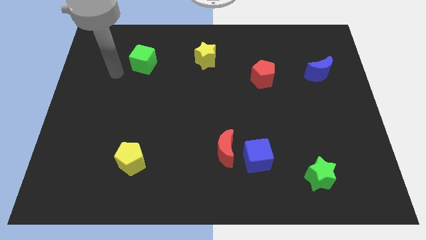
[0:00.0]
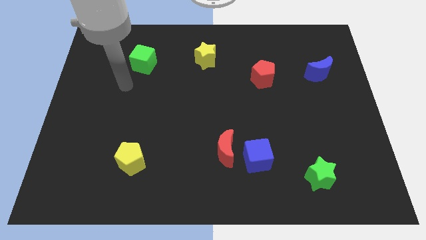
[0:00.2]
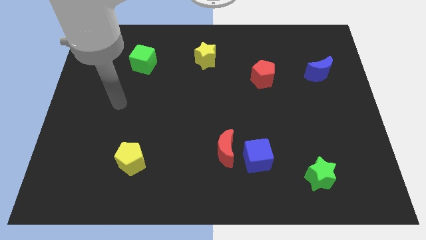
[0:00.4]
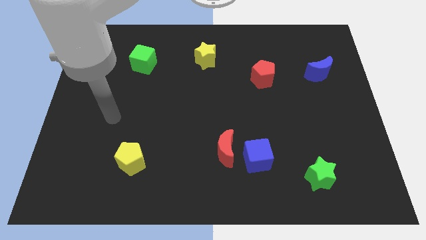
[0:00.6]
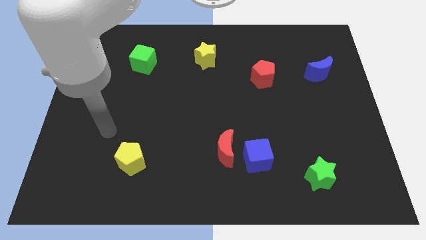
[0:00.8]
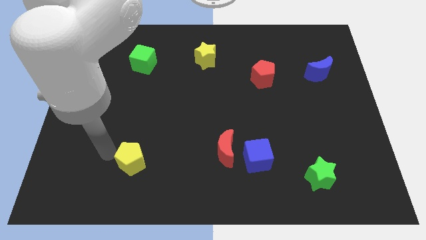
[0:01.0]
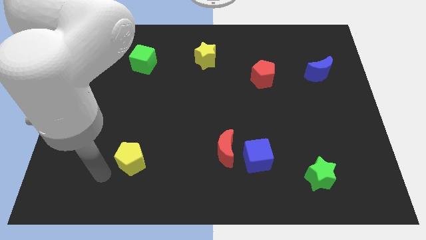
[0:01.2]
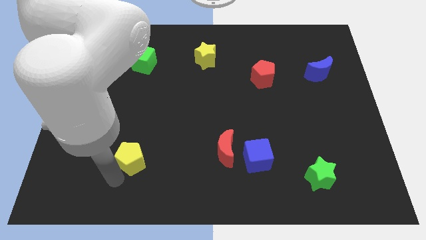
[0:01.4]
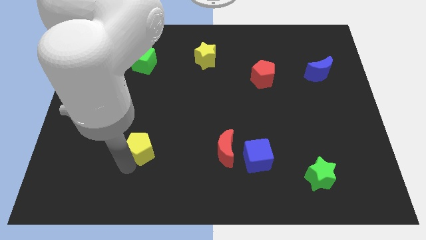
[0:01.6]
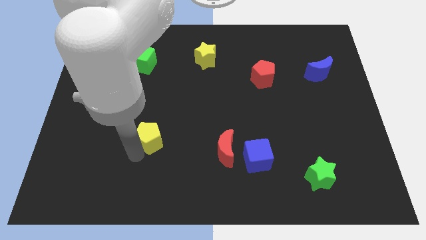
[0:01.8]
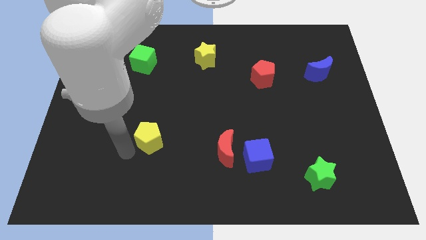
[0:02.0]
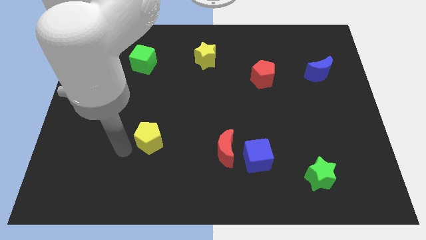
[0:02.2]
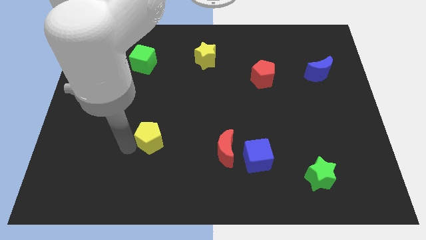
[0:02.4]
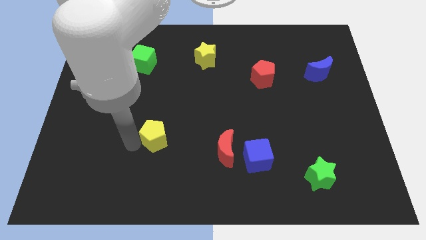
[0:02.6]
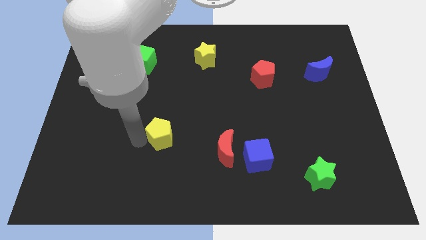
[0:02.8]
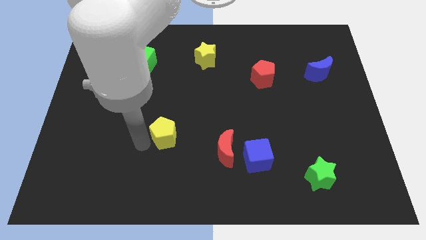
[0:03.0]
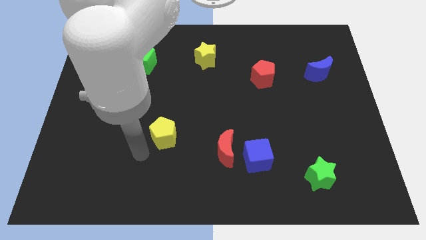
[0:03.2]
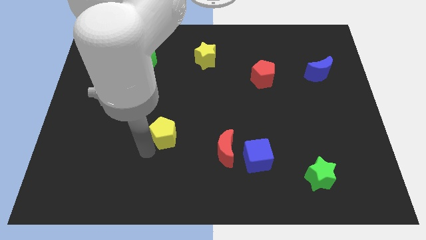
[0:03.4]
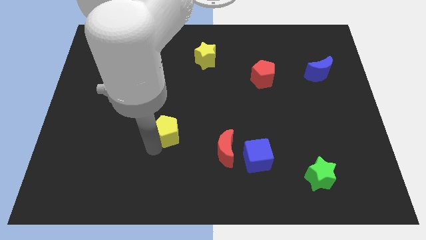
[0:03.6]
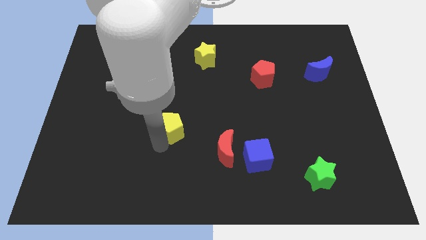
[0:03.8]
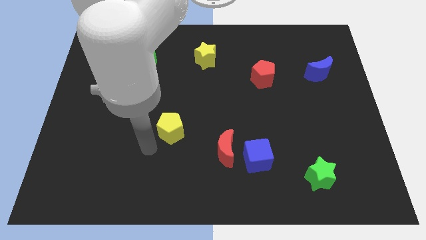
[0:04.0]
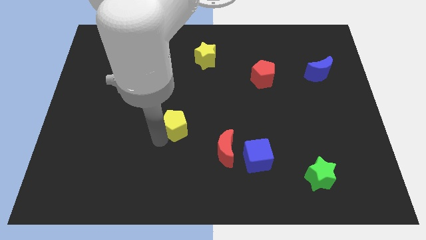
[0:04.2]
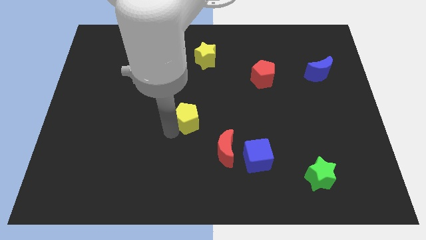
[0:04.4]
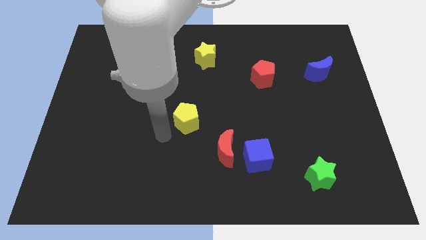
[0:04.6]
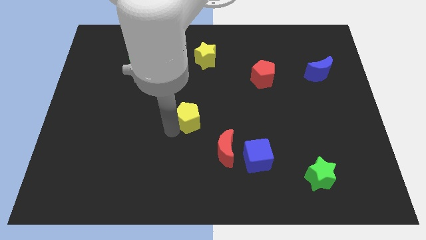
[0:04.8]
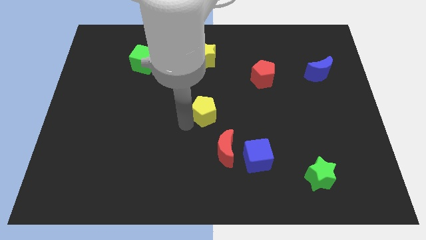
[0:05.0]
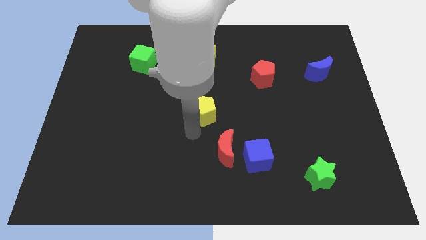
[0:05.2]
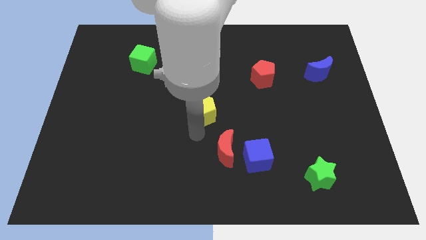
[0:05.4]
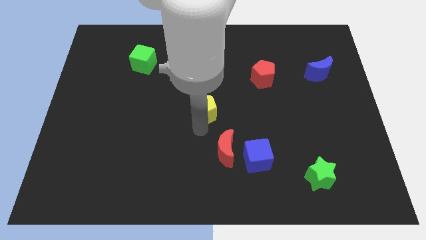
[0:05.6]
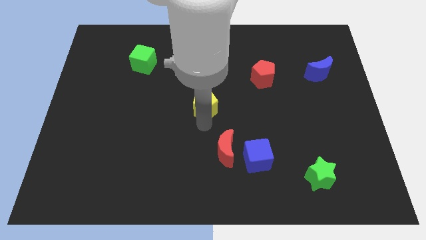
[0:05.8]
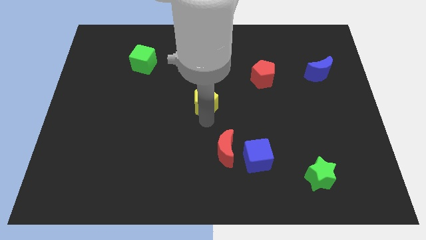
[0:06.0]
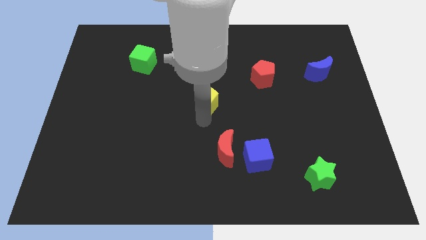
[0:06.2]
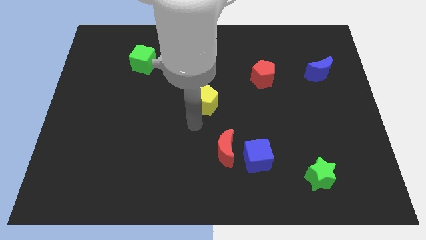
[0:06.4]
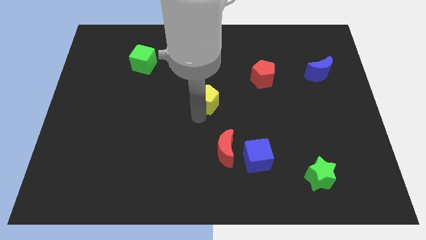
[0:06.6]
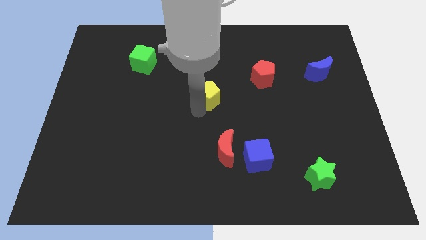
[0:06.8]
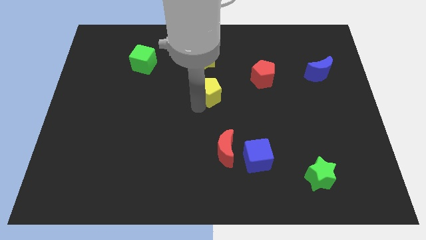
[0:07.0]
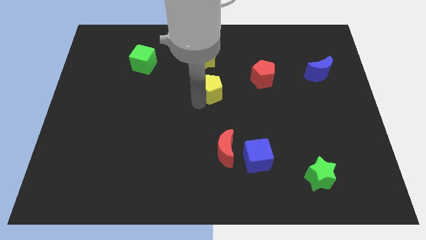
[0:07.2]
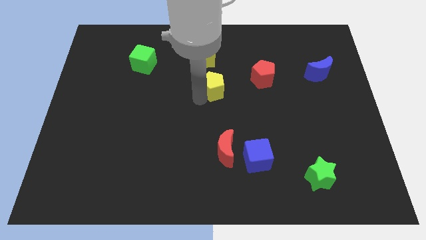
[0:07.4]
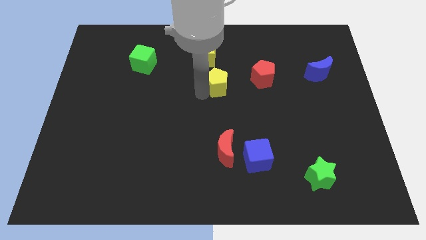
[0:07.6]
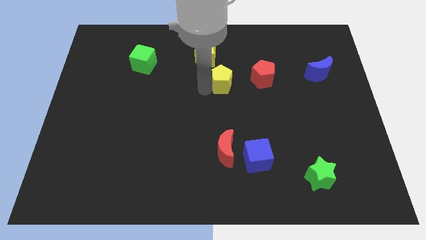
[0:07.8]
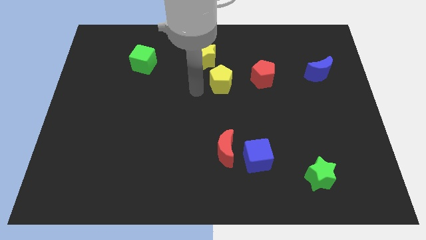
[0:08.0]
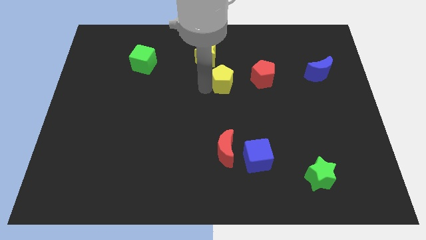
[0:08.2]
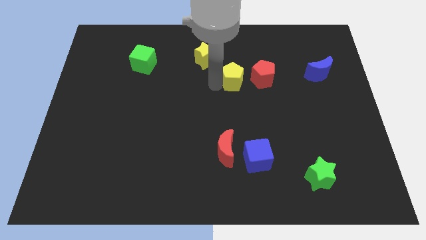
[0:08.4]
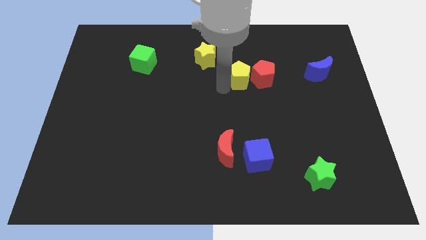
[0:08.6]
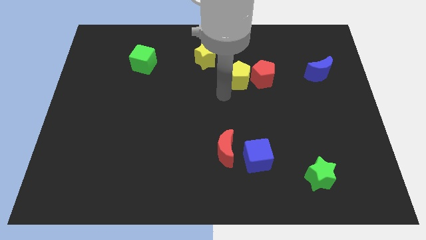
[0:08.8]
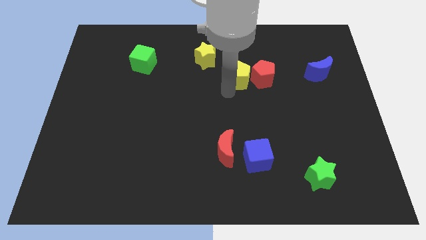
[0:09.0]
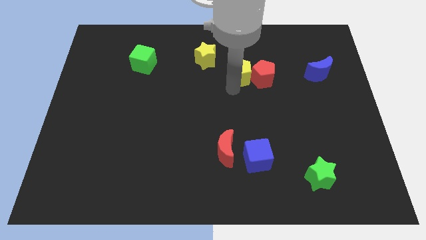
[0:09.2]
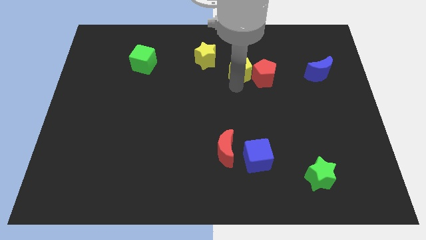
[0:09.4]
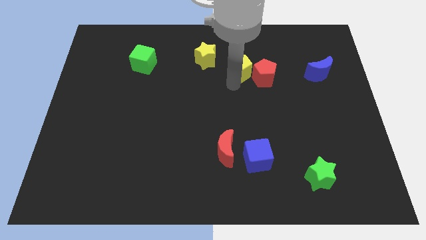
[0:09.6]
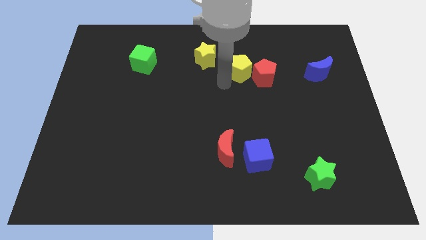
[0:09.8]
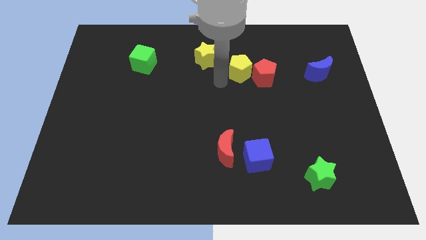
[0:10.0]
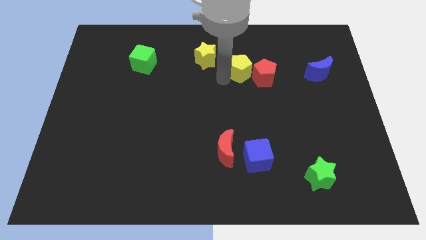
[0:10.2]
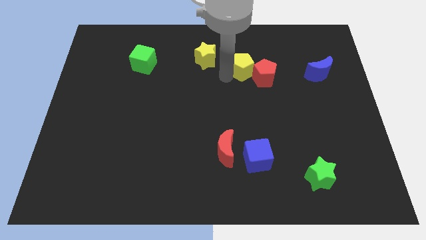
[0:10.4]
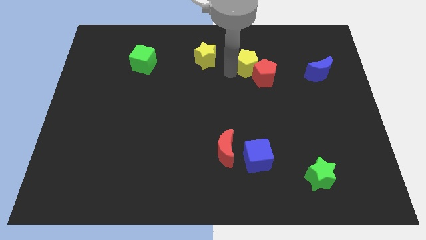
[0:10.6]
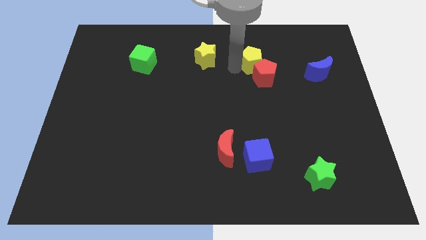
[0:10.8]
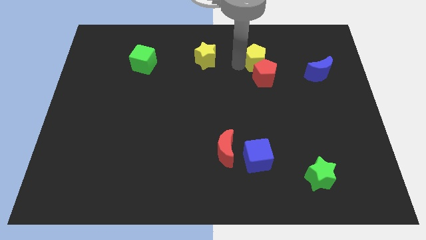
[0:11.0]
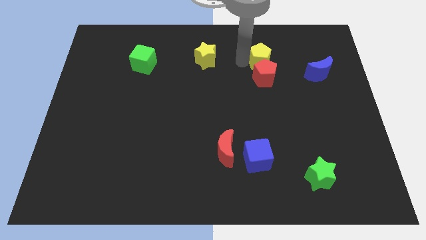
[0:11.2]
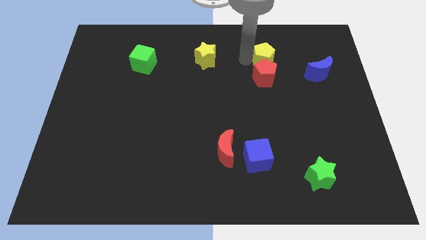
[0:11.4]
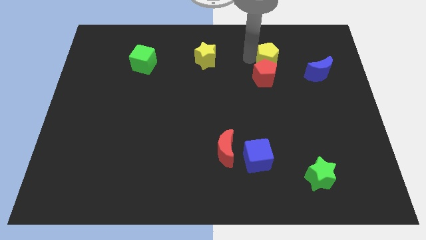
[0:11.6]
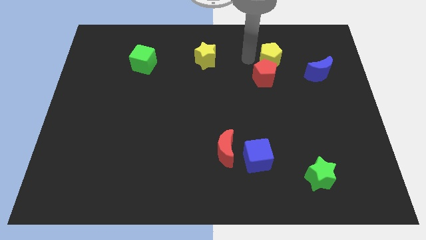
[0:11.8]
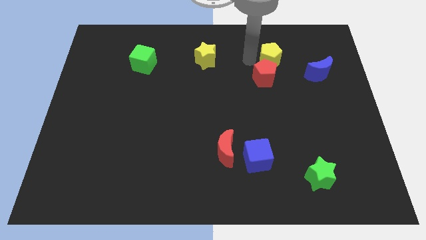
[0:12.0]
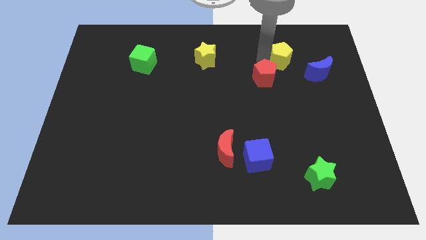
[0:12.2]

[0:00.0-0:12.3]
slide the yellow pentagon diagonally up and to the left of the blue moon

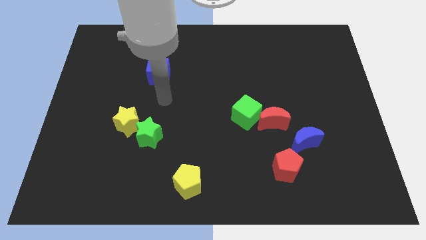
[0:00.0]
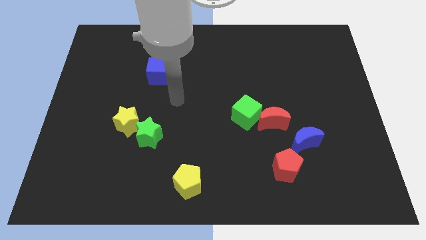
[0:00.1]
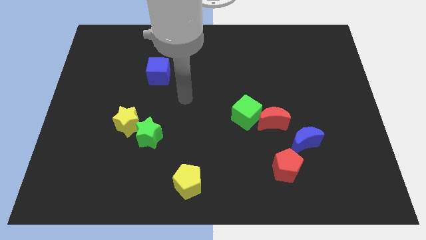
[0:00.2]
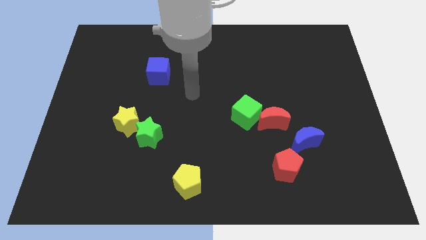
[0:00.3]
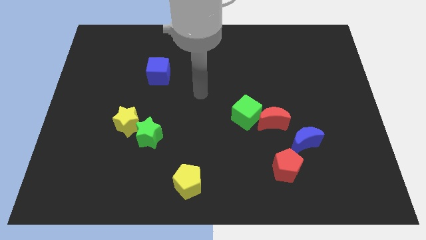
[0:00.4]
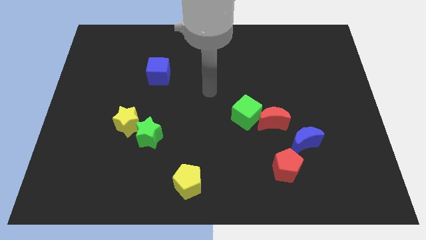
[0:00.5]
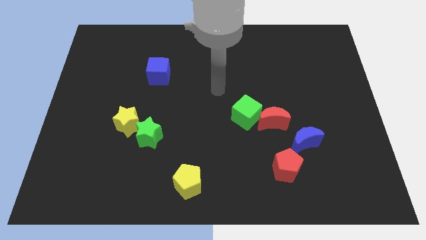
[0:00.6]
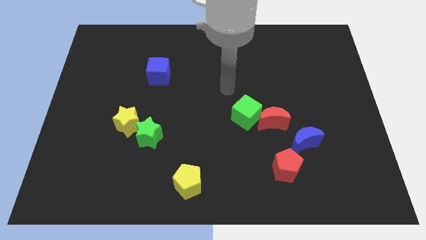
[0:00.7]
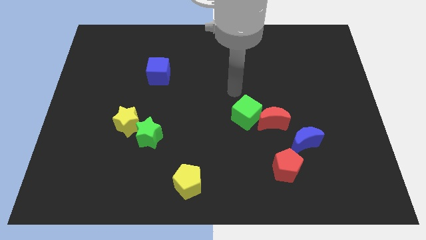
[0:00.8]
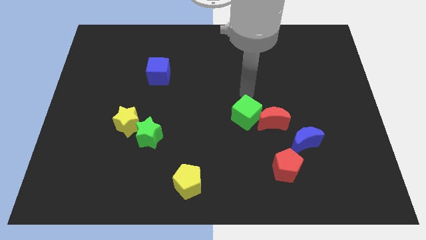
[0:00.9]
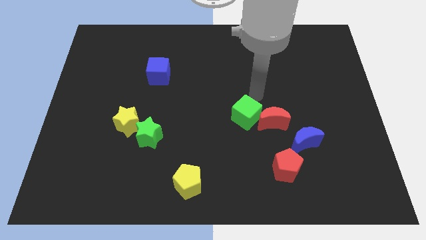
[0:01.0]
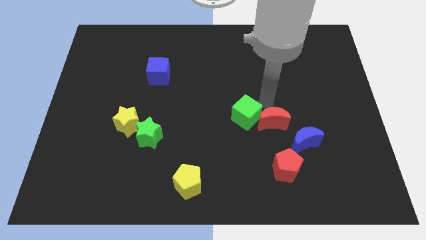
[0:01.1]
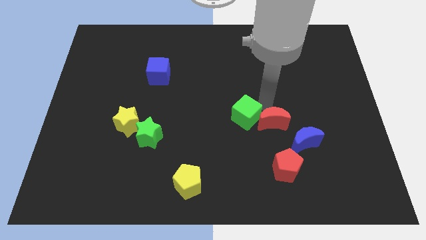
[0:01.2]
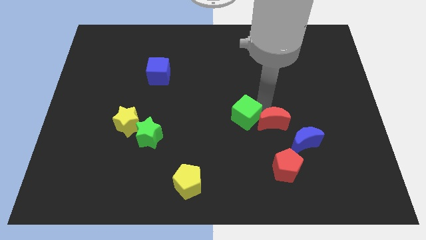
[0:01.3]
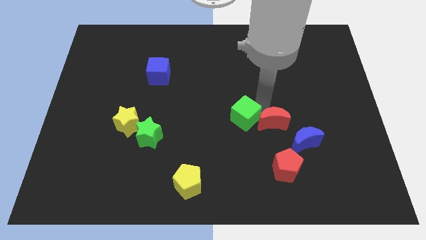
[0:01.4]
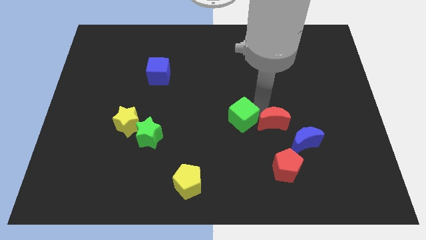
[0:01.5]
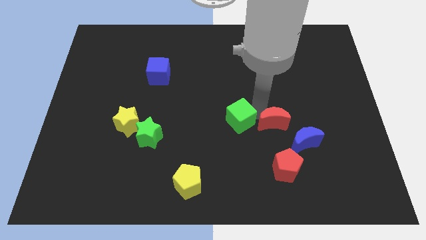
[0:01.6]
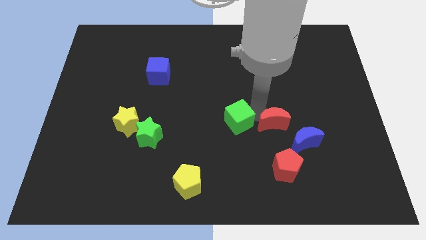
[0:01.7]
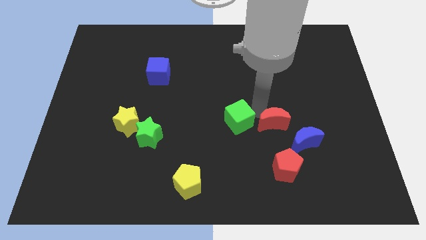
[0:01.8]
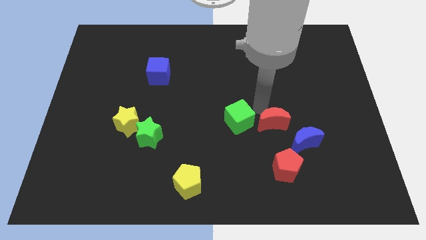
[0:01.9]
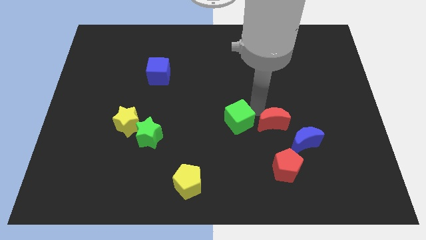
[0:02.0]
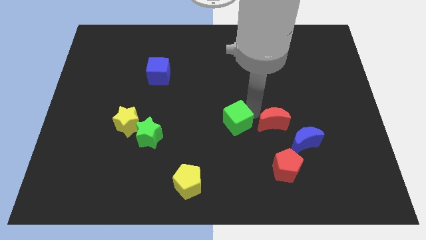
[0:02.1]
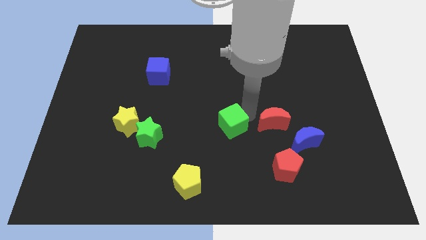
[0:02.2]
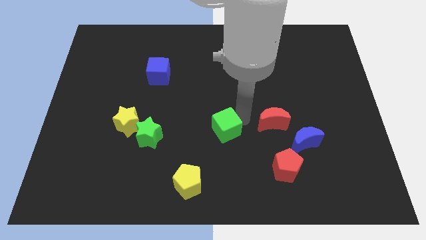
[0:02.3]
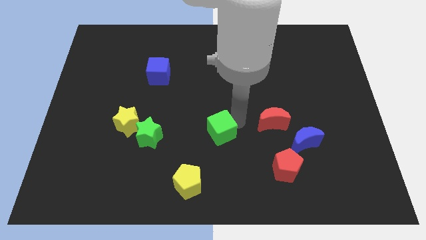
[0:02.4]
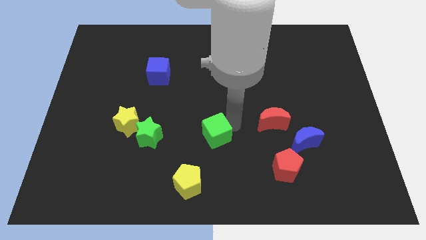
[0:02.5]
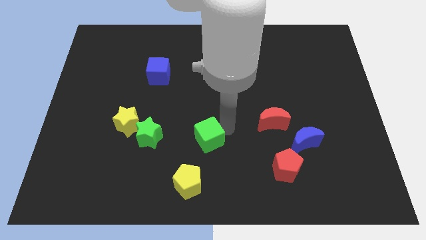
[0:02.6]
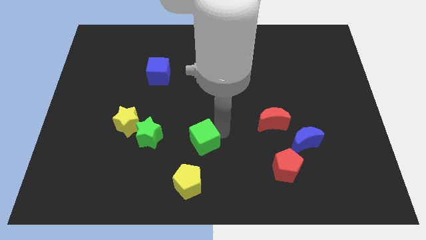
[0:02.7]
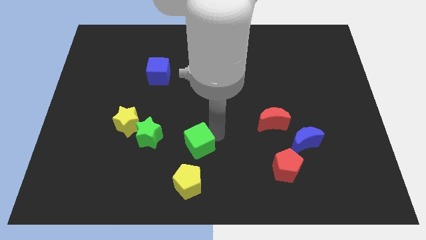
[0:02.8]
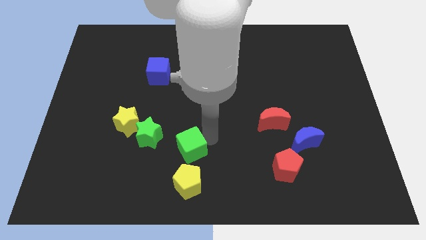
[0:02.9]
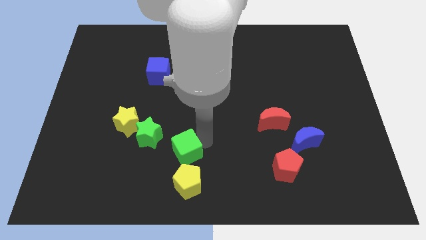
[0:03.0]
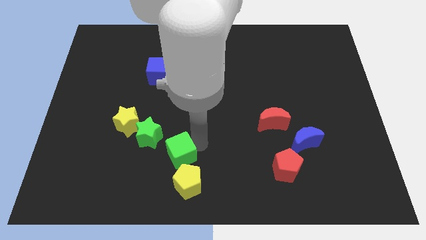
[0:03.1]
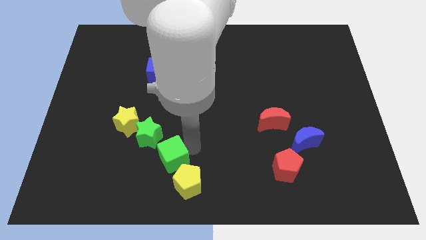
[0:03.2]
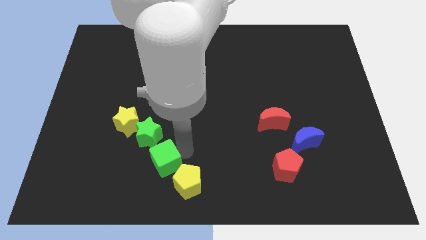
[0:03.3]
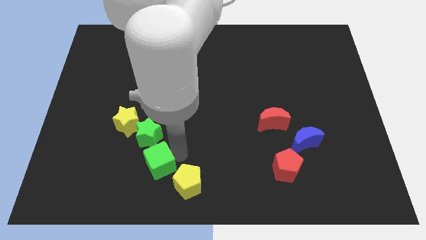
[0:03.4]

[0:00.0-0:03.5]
move the green cube just left of the yellow pentagon
